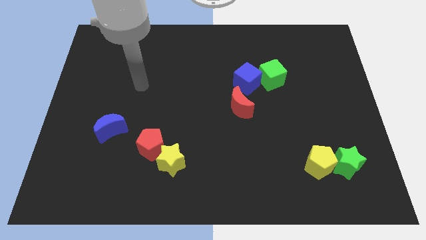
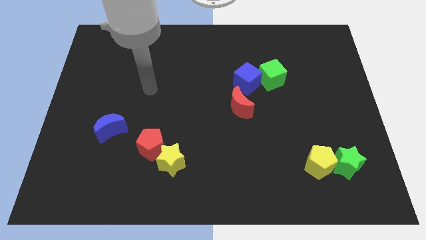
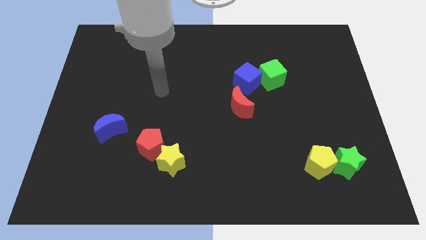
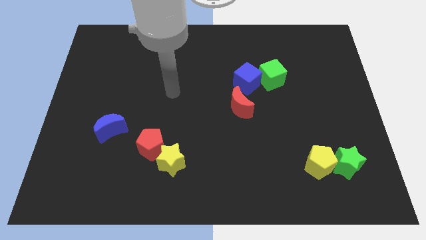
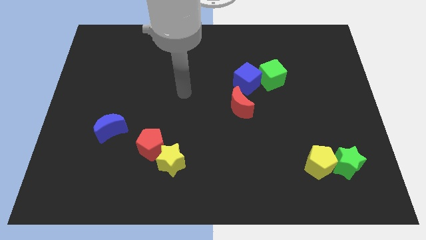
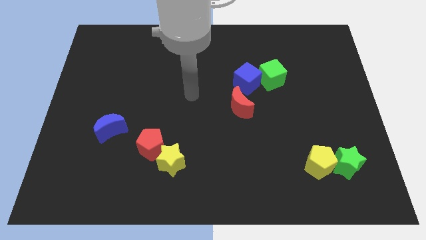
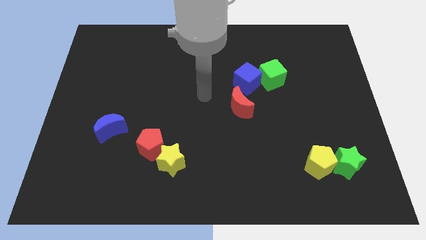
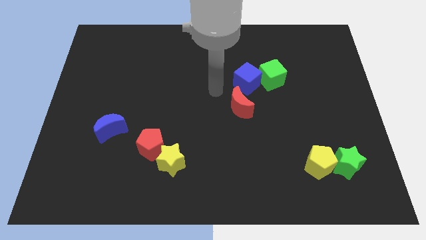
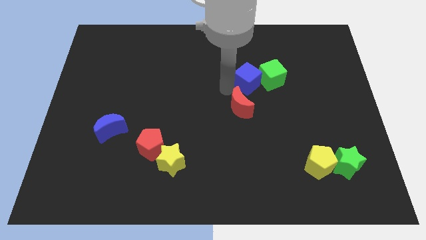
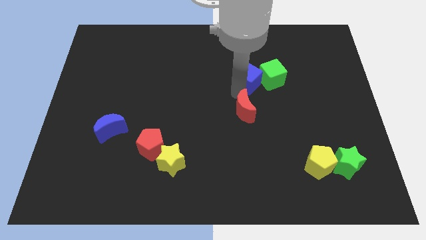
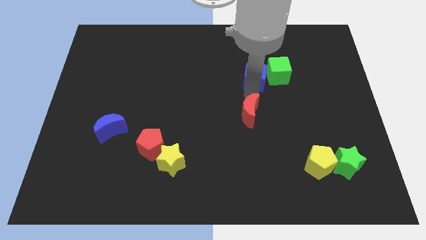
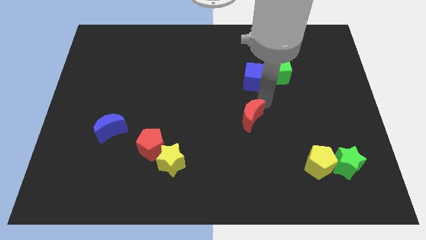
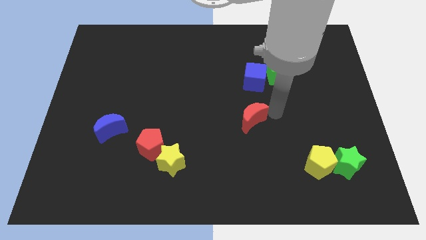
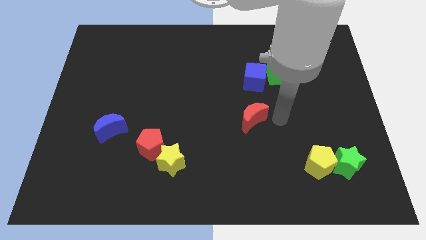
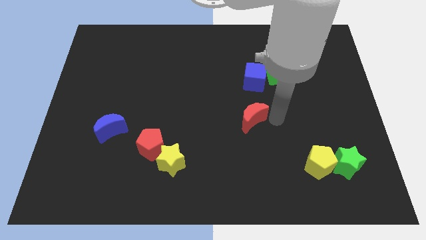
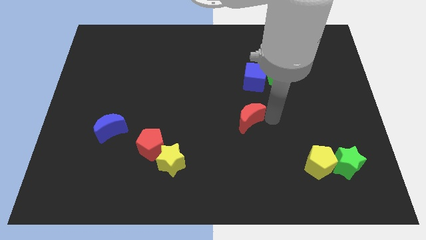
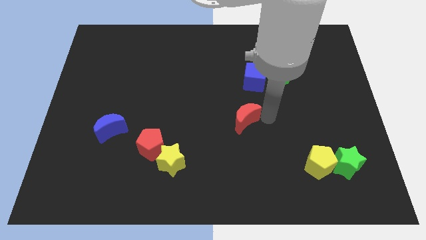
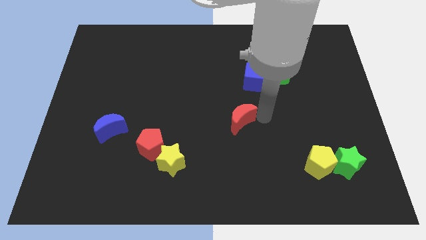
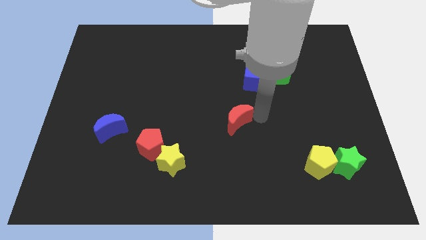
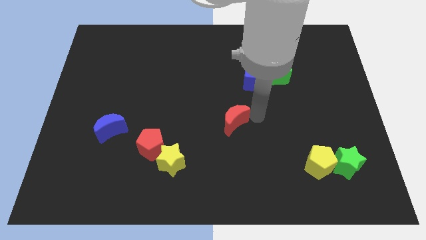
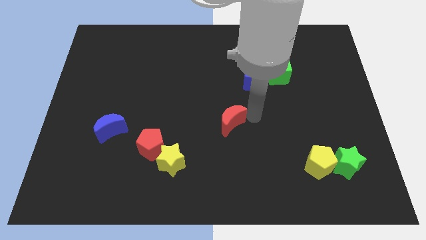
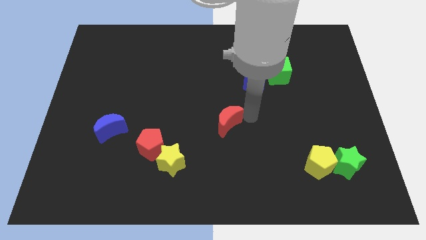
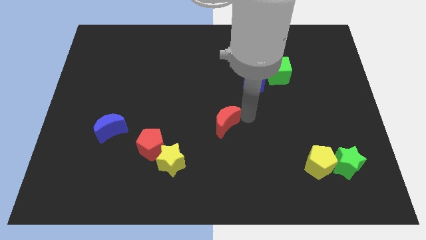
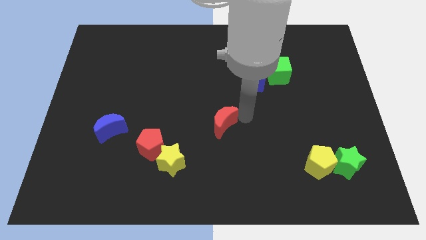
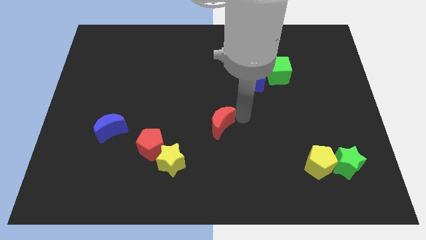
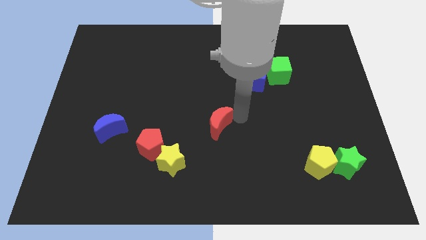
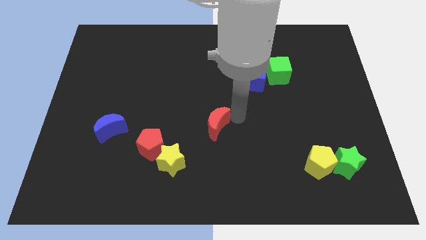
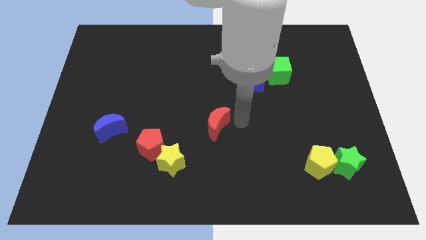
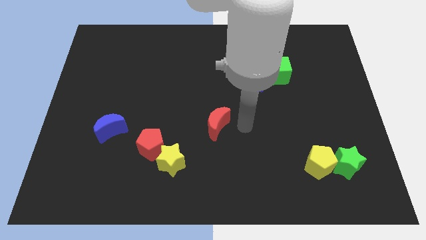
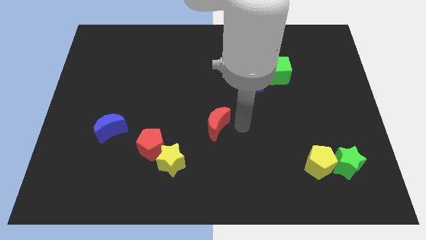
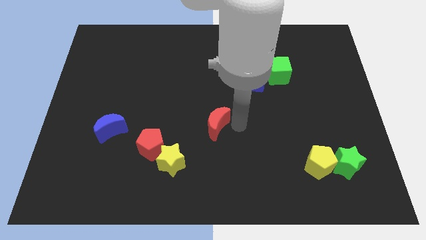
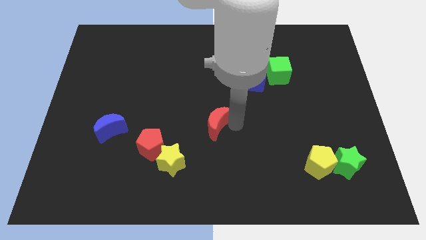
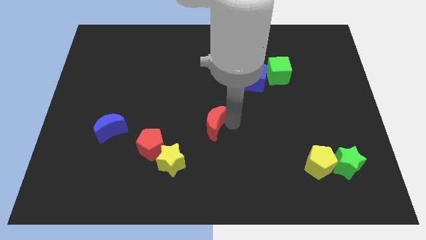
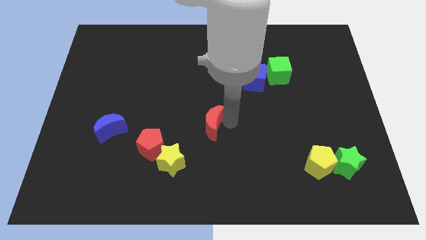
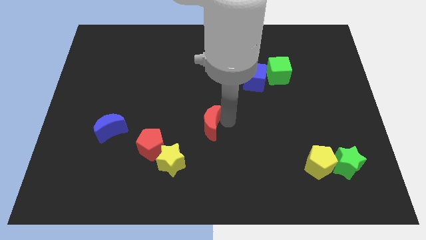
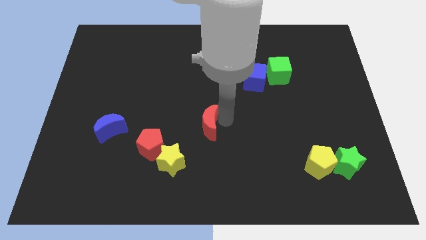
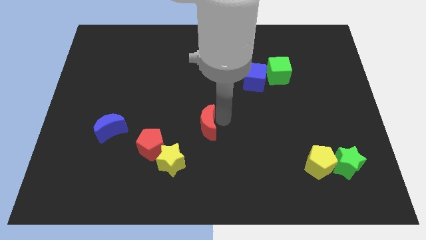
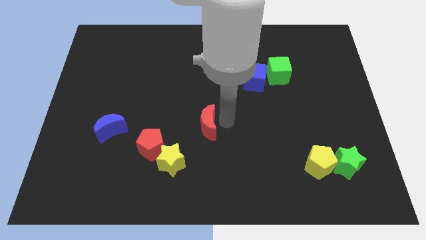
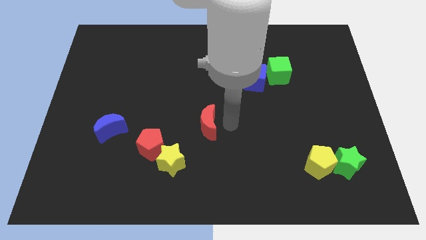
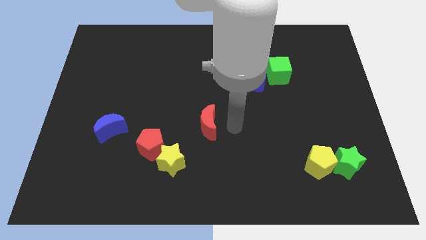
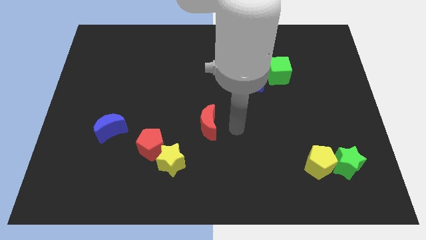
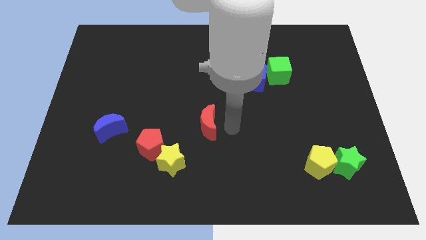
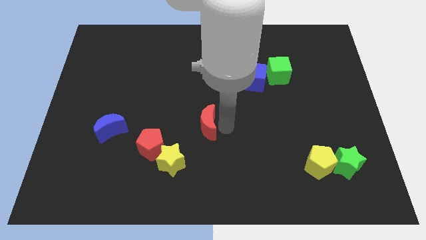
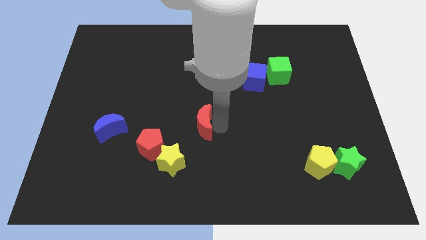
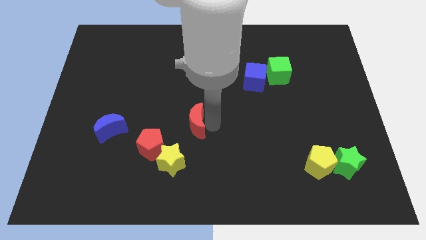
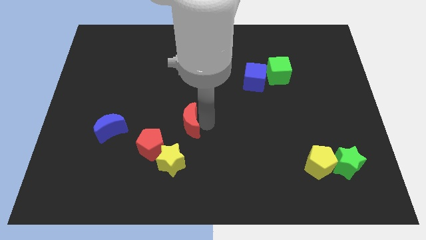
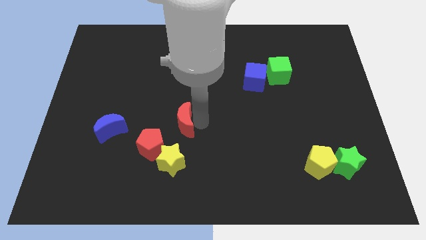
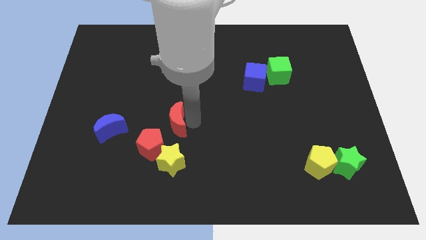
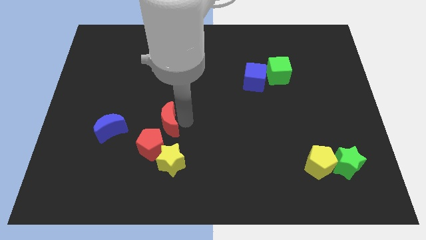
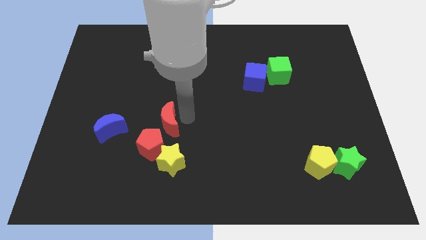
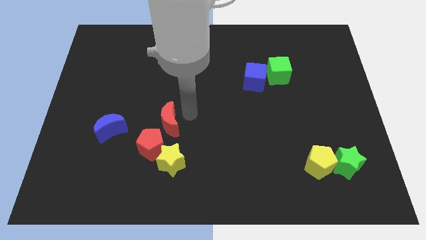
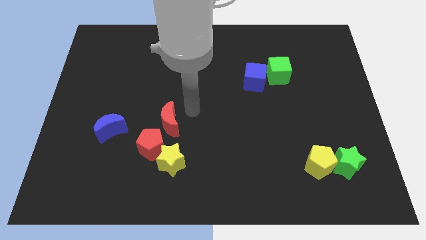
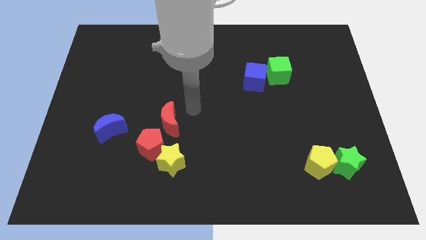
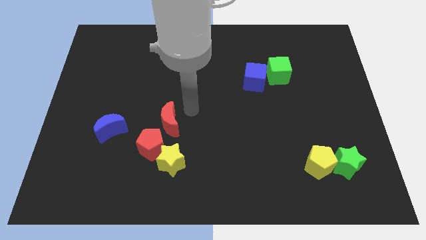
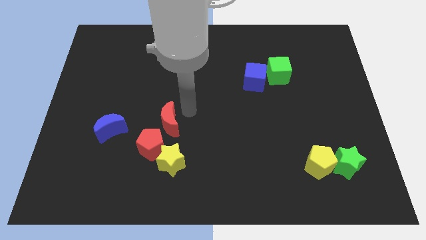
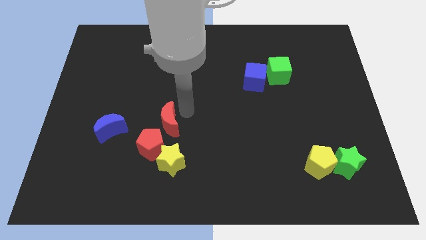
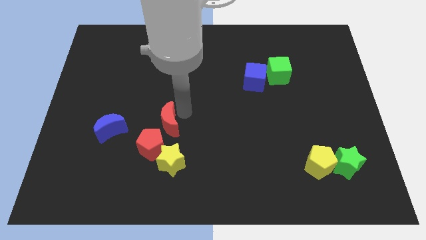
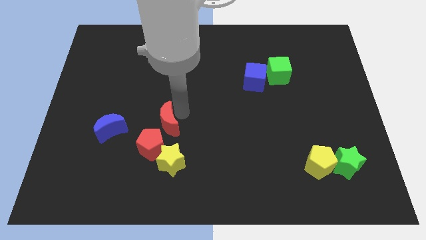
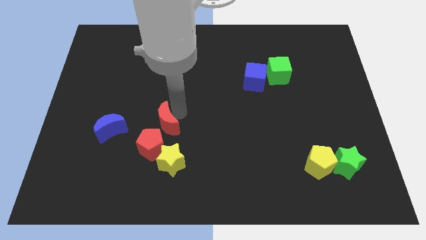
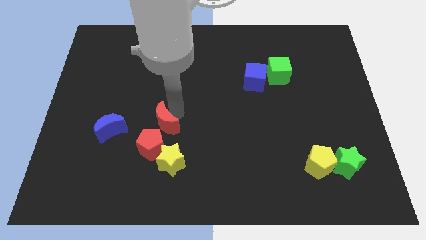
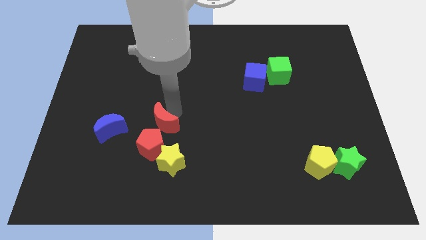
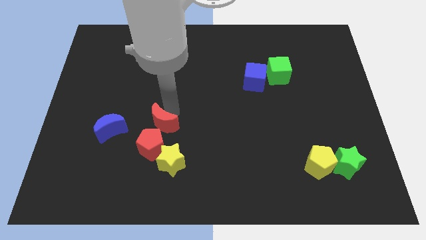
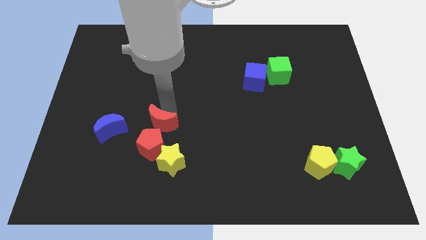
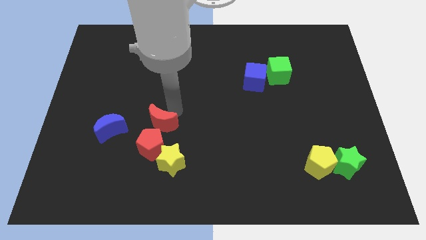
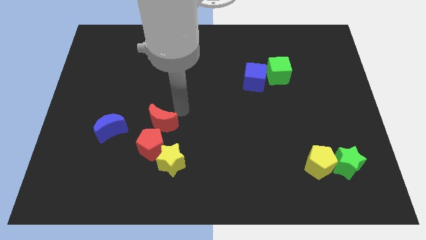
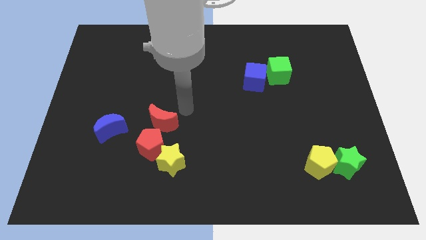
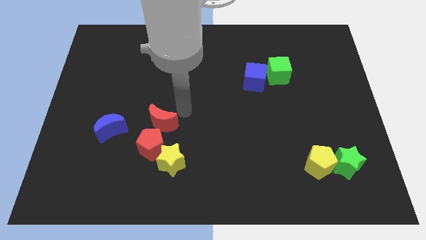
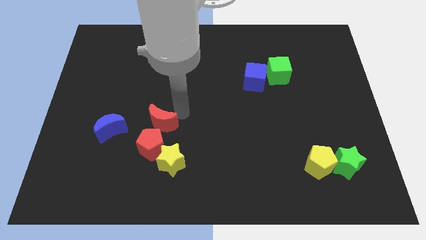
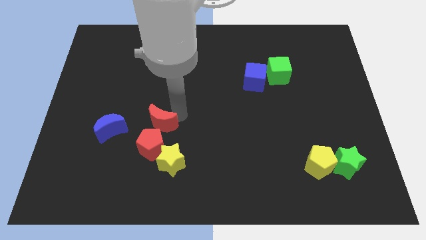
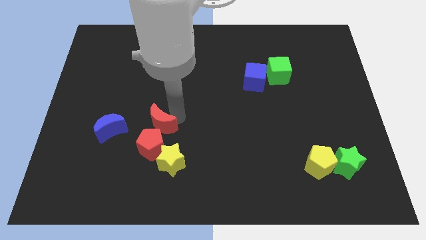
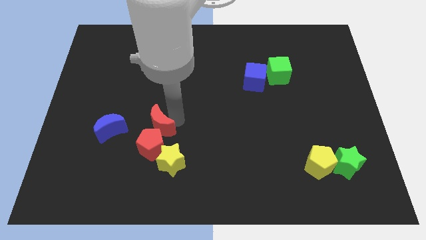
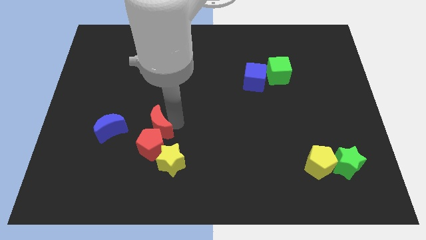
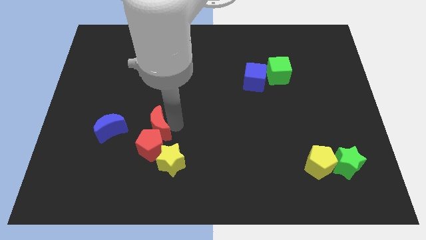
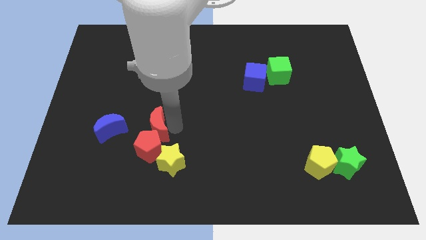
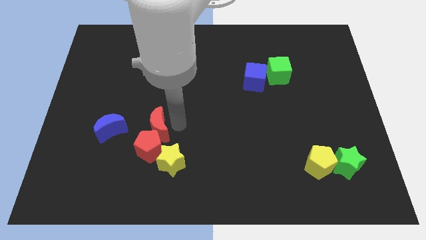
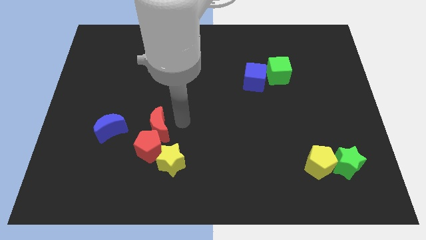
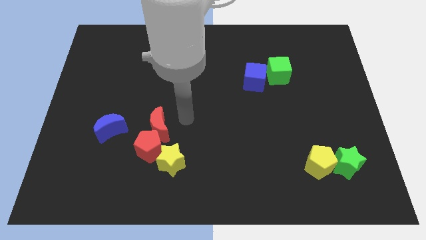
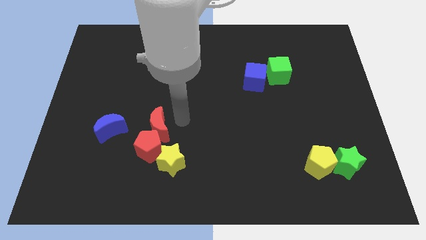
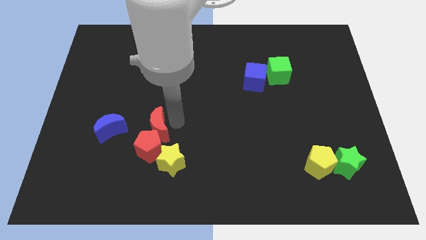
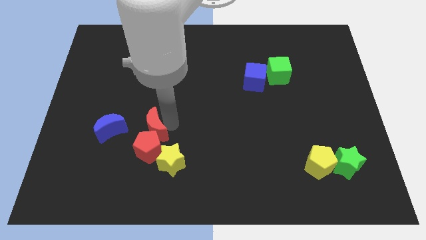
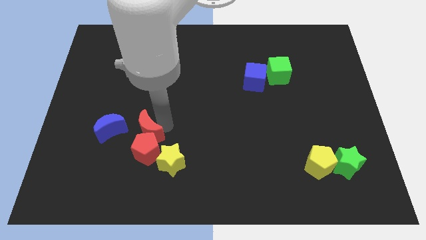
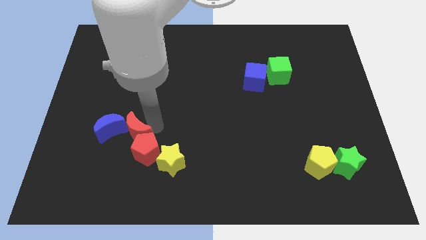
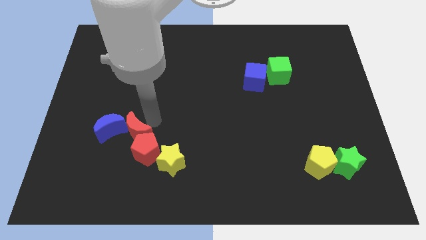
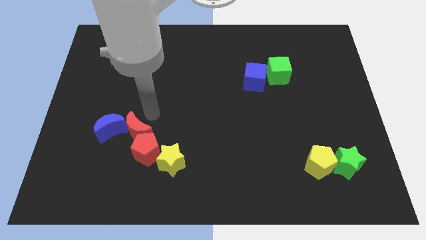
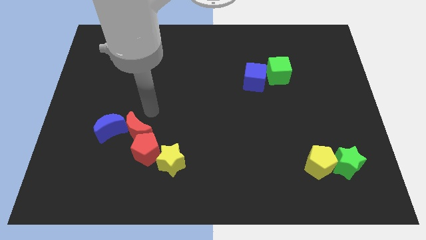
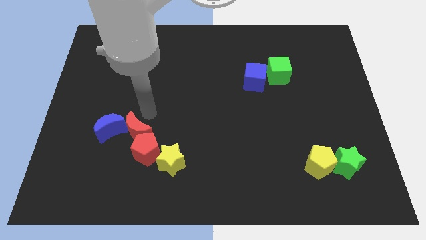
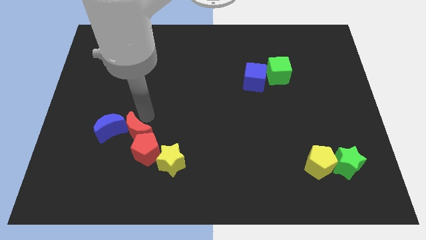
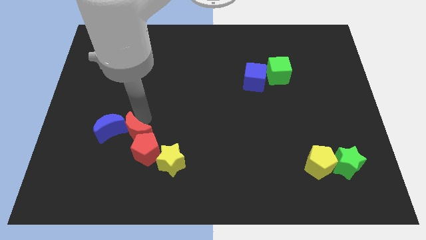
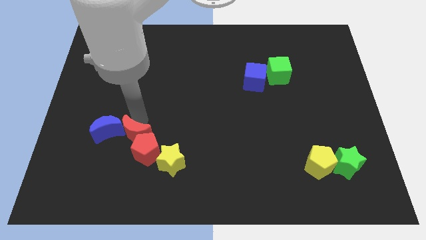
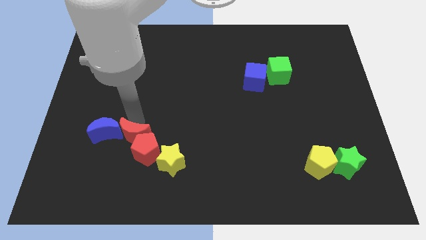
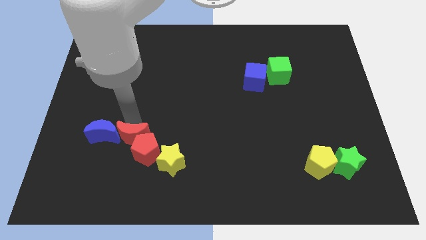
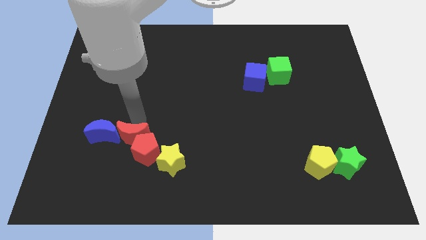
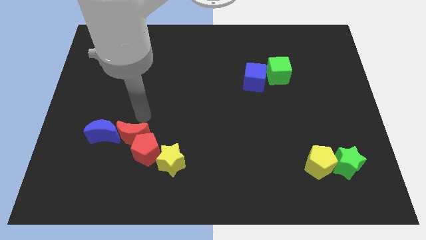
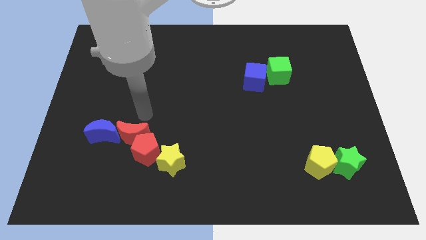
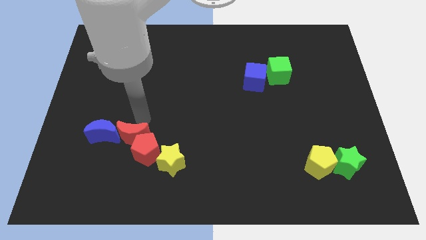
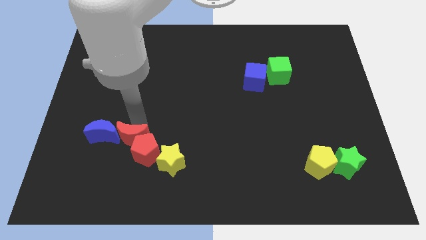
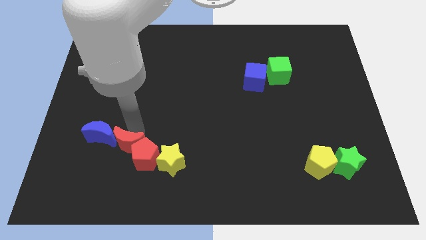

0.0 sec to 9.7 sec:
put the red moon just left of the yellow star
